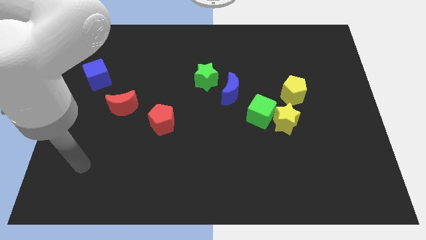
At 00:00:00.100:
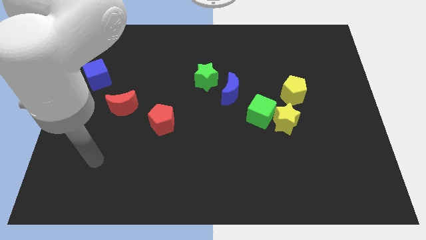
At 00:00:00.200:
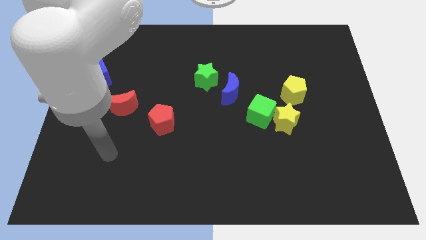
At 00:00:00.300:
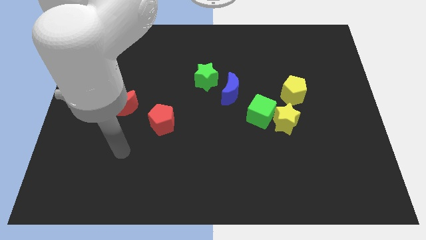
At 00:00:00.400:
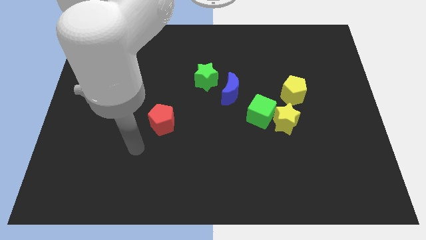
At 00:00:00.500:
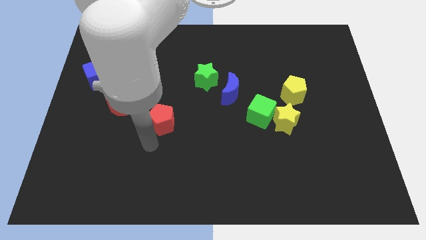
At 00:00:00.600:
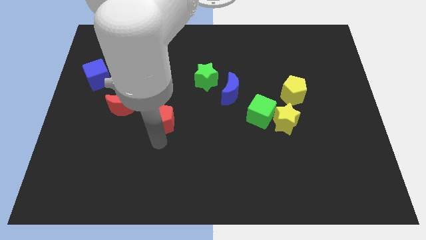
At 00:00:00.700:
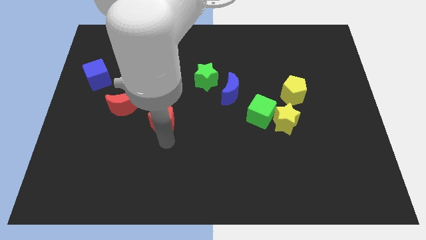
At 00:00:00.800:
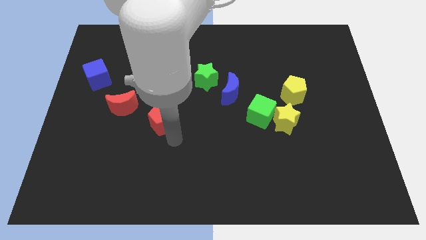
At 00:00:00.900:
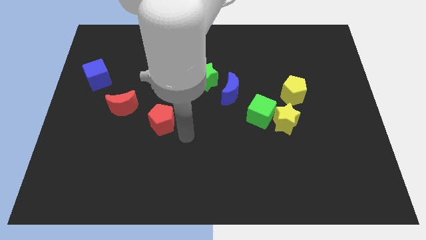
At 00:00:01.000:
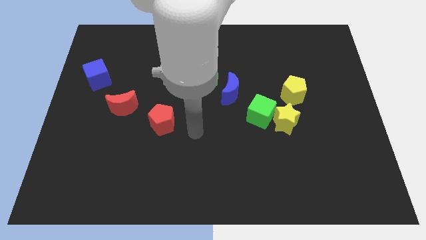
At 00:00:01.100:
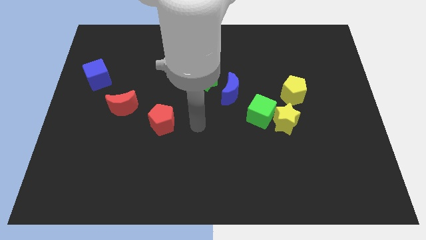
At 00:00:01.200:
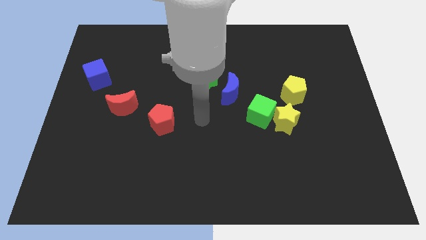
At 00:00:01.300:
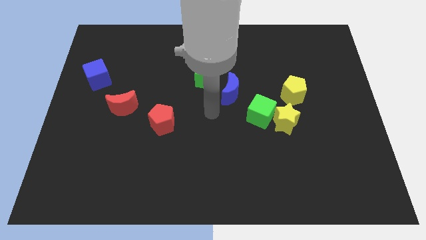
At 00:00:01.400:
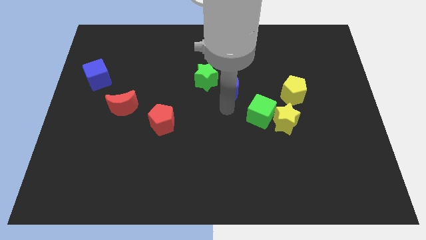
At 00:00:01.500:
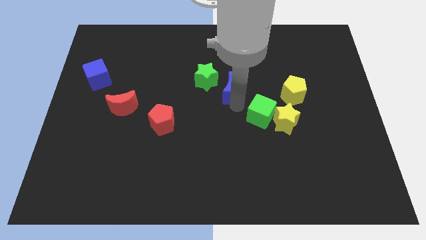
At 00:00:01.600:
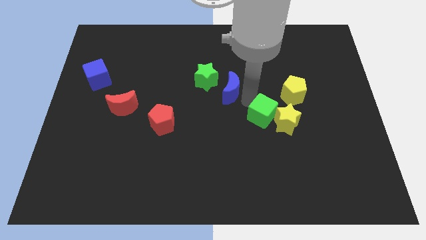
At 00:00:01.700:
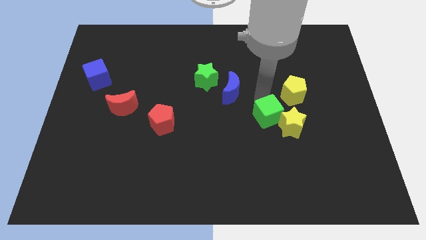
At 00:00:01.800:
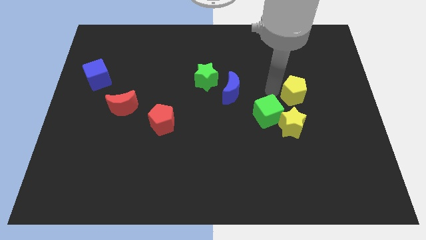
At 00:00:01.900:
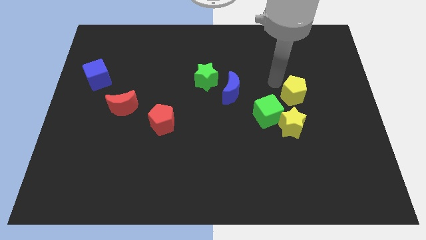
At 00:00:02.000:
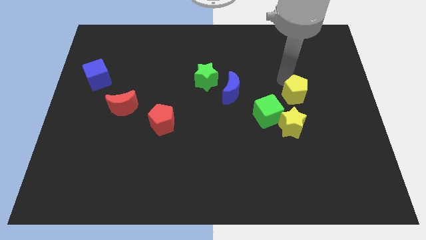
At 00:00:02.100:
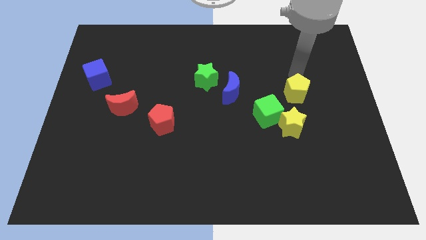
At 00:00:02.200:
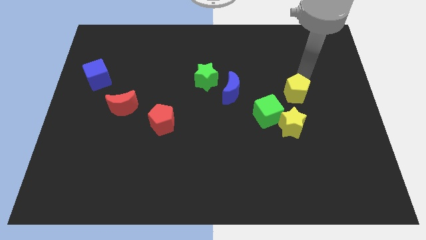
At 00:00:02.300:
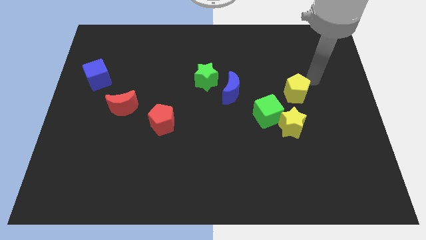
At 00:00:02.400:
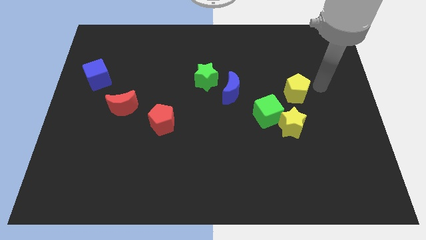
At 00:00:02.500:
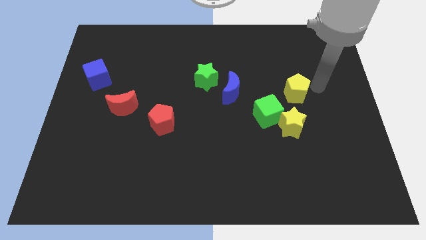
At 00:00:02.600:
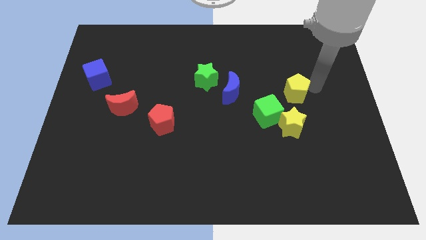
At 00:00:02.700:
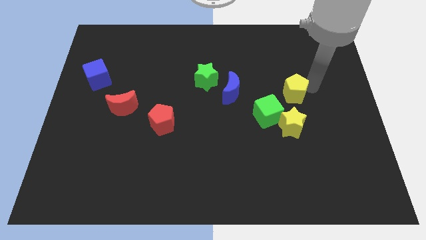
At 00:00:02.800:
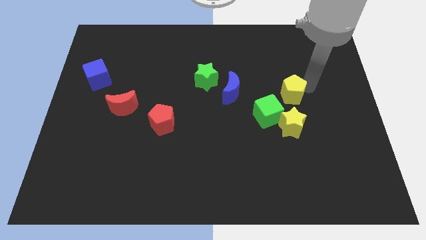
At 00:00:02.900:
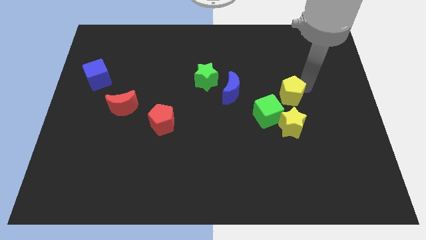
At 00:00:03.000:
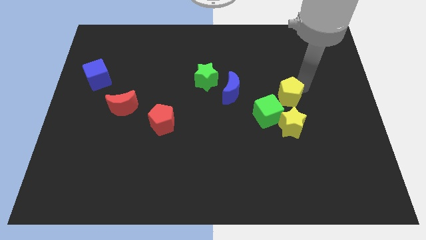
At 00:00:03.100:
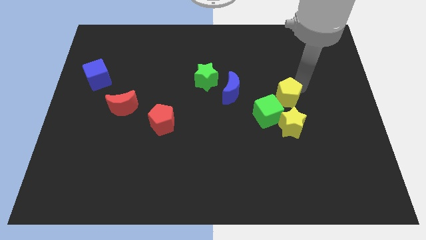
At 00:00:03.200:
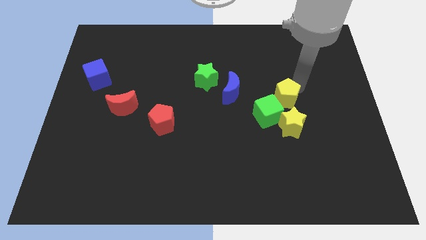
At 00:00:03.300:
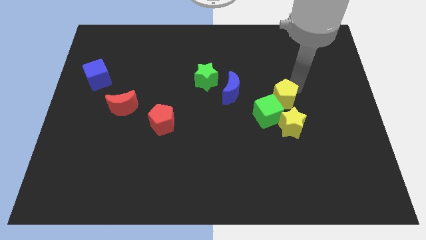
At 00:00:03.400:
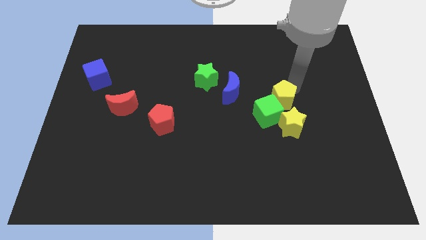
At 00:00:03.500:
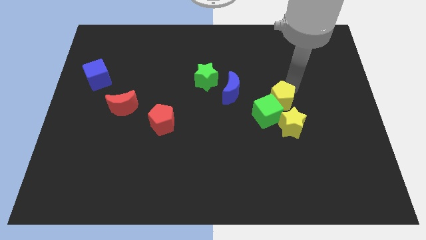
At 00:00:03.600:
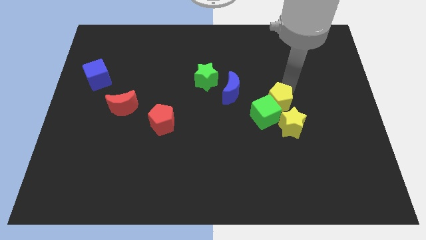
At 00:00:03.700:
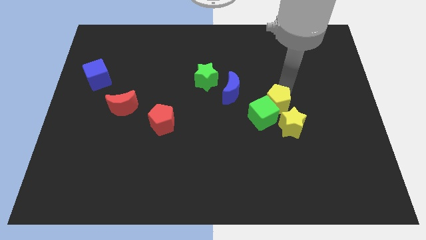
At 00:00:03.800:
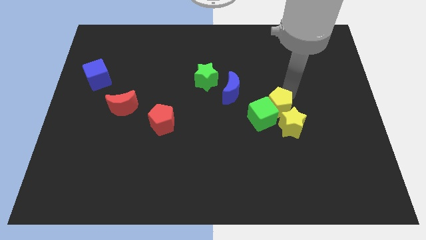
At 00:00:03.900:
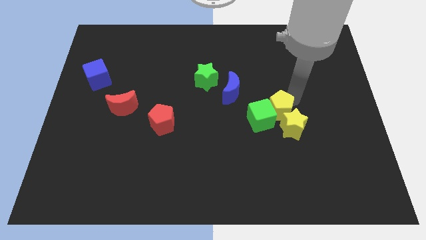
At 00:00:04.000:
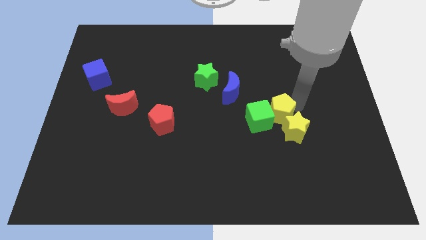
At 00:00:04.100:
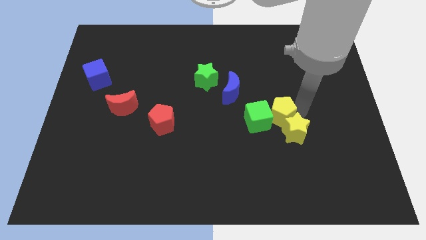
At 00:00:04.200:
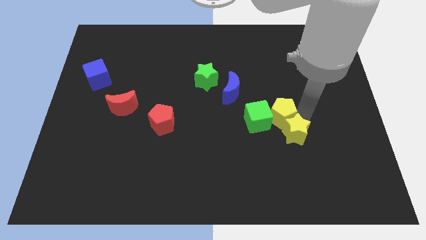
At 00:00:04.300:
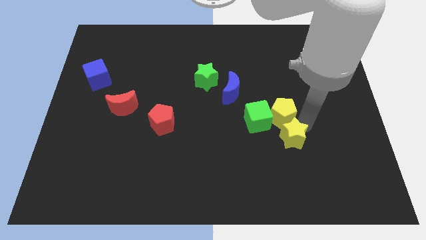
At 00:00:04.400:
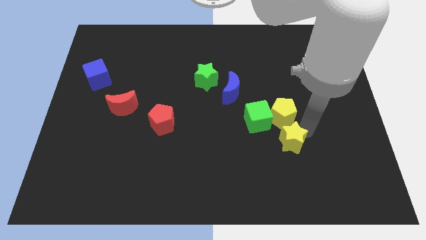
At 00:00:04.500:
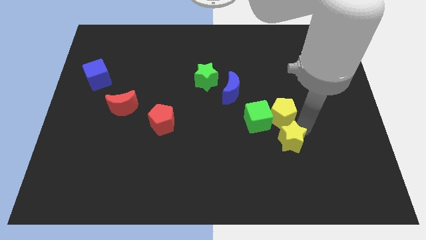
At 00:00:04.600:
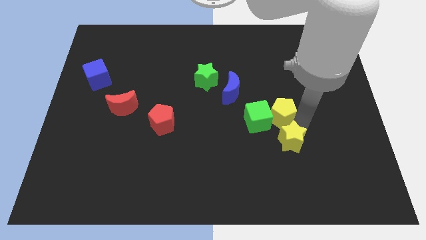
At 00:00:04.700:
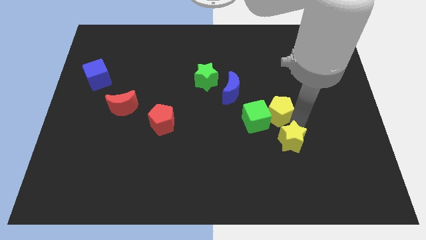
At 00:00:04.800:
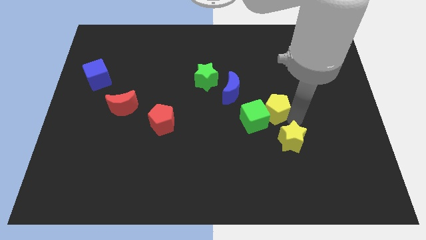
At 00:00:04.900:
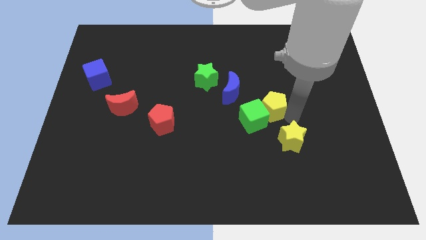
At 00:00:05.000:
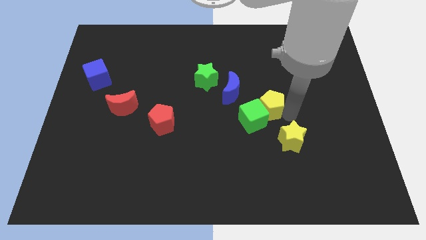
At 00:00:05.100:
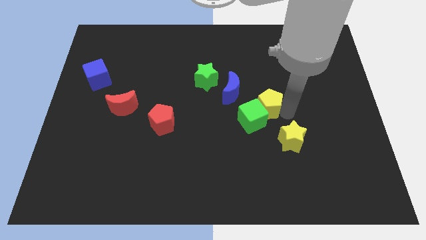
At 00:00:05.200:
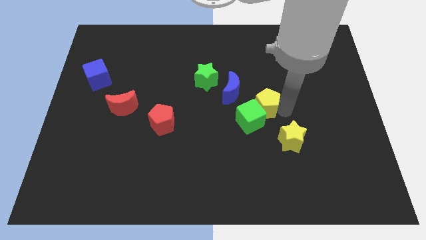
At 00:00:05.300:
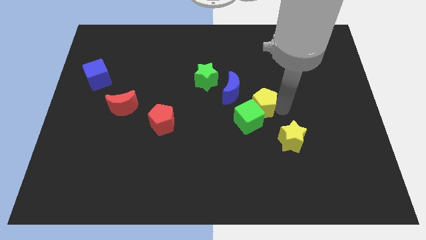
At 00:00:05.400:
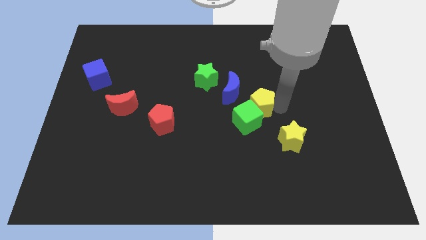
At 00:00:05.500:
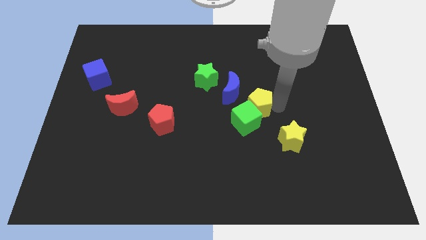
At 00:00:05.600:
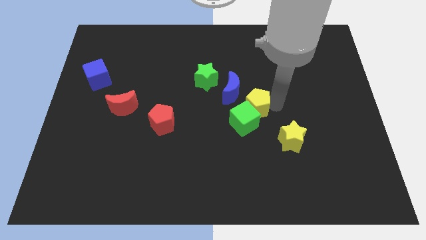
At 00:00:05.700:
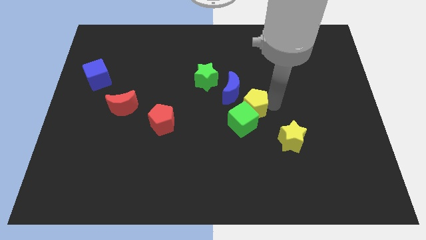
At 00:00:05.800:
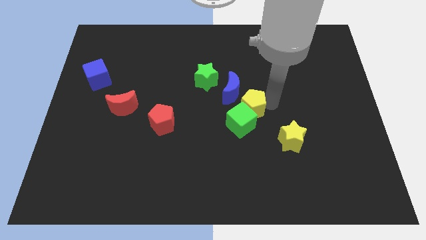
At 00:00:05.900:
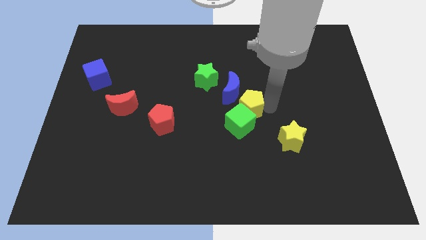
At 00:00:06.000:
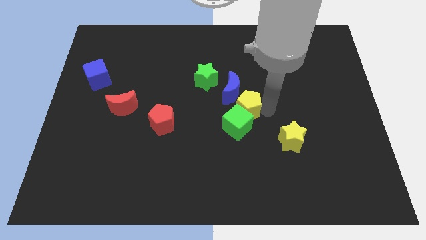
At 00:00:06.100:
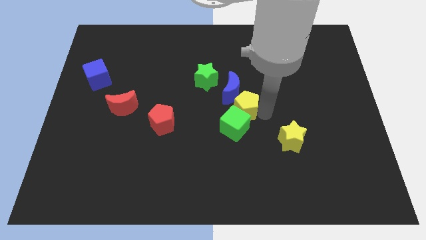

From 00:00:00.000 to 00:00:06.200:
slide the yellow pentagon to the blue moon

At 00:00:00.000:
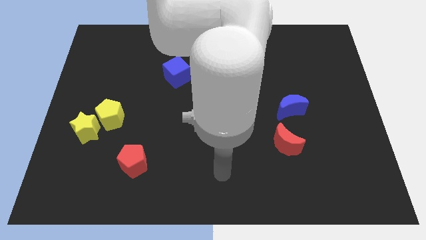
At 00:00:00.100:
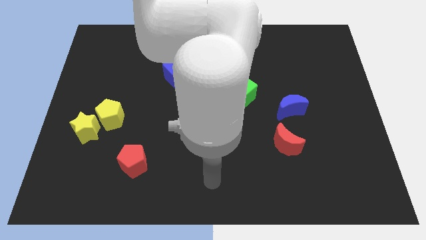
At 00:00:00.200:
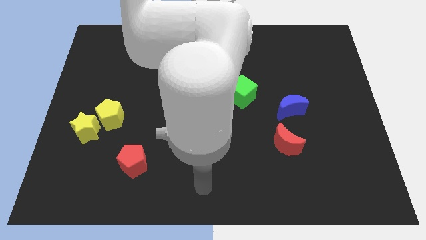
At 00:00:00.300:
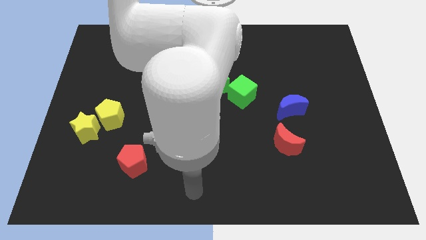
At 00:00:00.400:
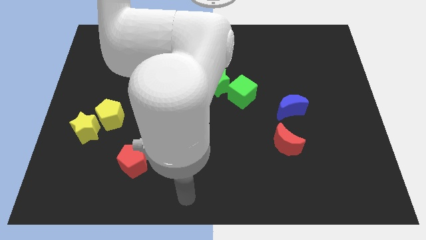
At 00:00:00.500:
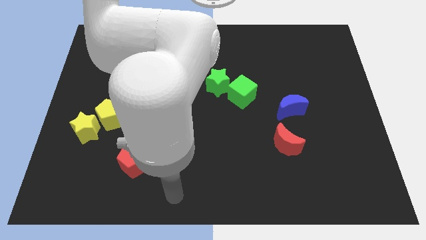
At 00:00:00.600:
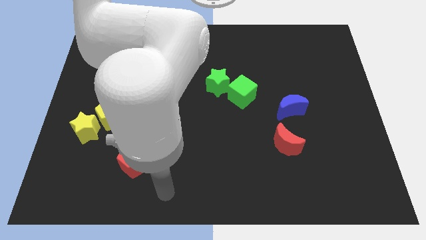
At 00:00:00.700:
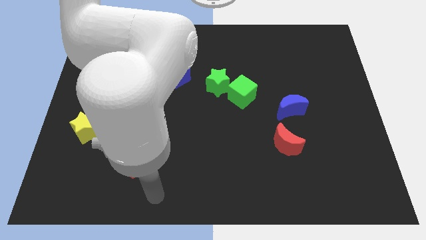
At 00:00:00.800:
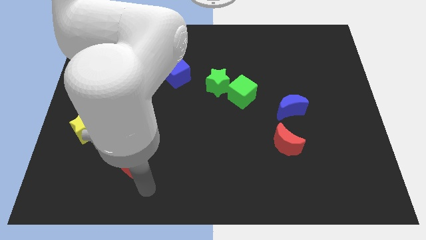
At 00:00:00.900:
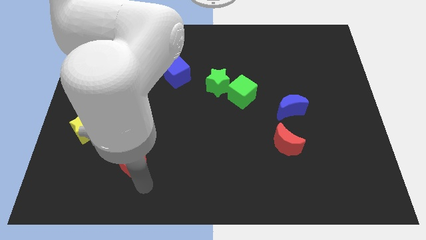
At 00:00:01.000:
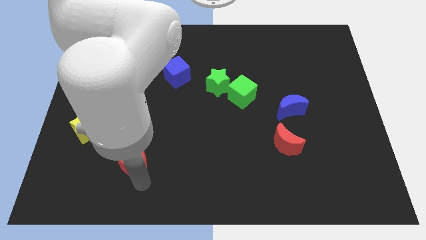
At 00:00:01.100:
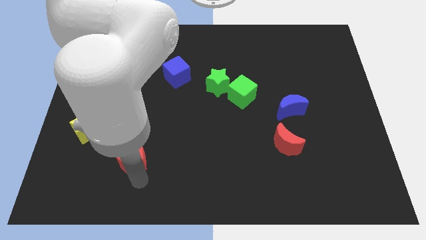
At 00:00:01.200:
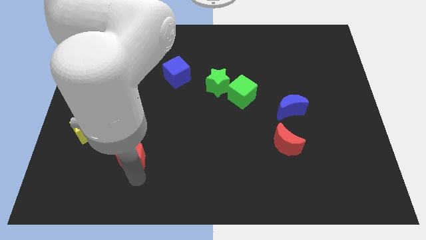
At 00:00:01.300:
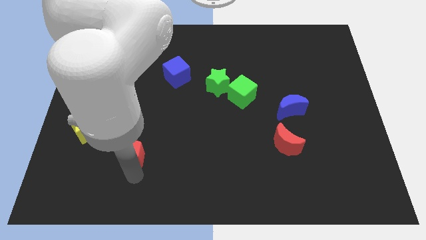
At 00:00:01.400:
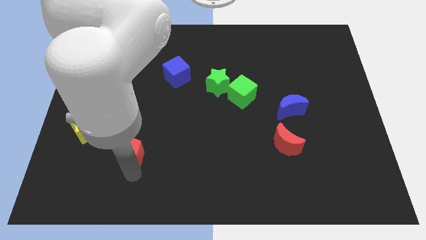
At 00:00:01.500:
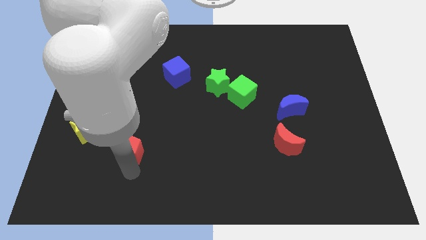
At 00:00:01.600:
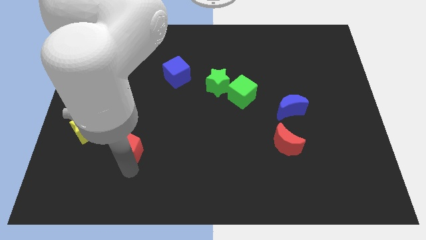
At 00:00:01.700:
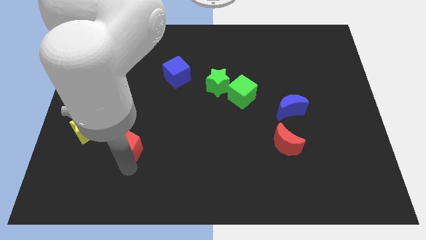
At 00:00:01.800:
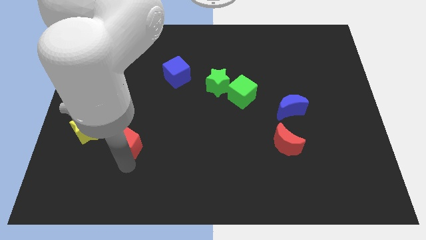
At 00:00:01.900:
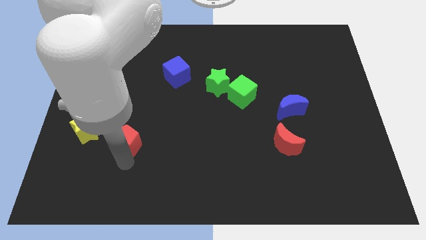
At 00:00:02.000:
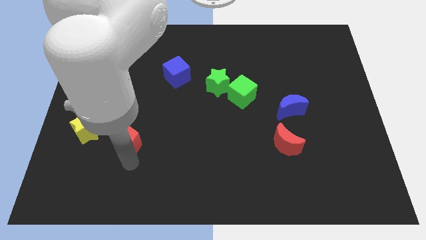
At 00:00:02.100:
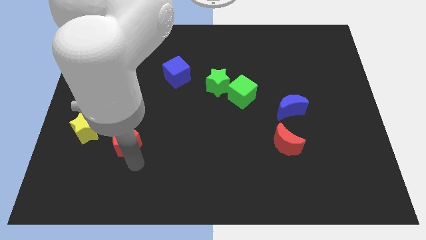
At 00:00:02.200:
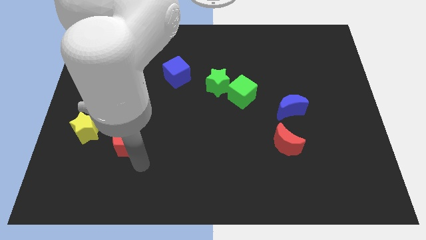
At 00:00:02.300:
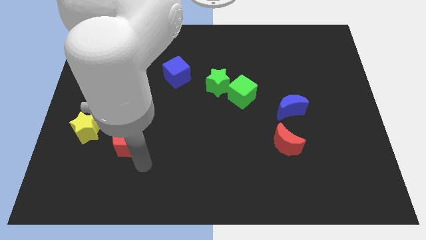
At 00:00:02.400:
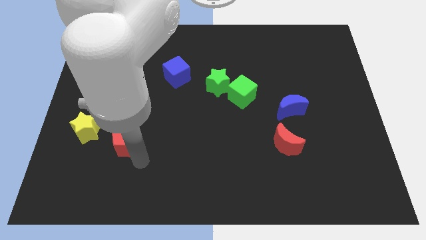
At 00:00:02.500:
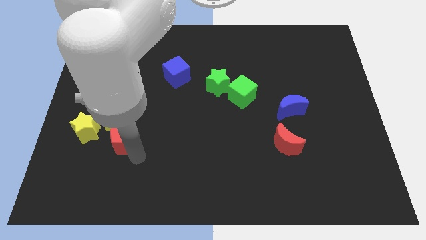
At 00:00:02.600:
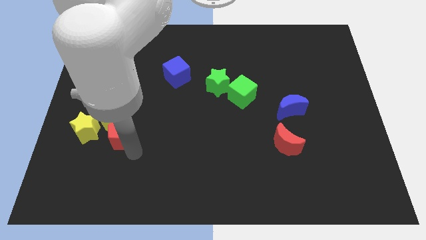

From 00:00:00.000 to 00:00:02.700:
move the red pentagon towards the yellow pentagon
